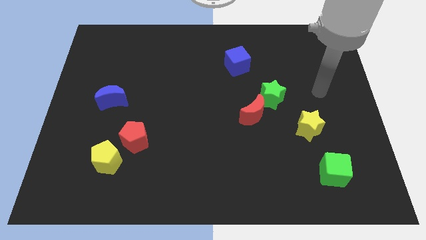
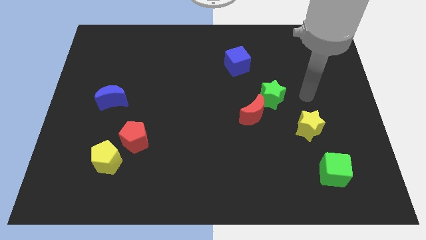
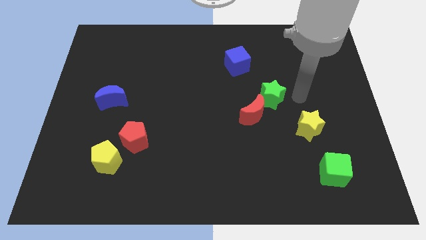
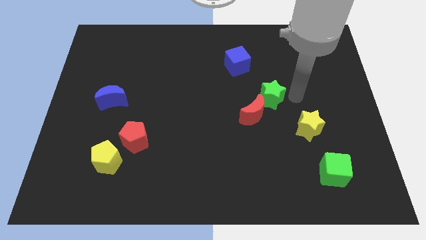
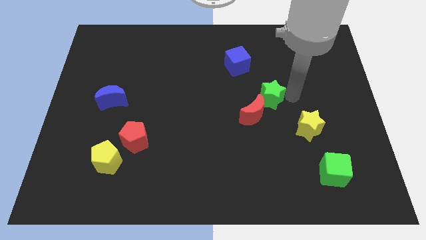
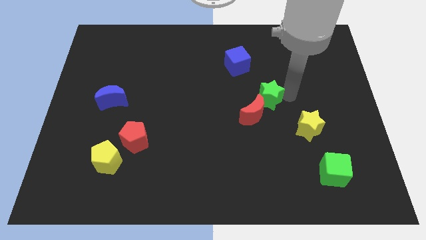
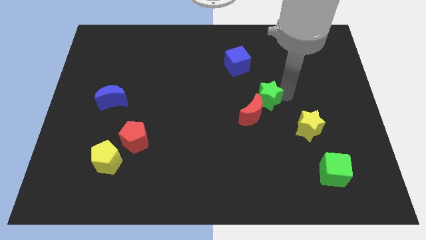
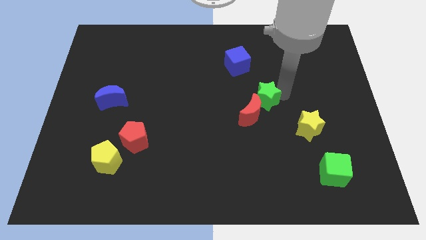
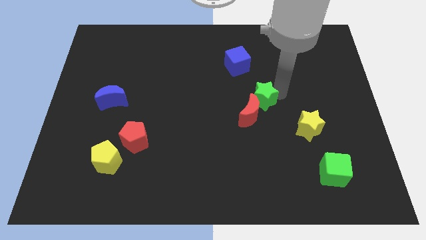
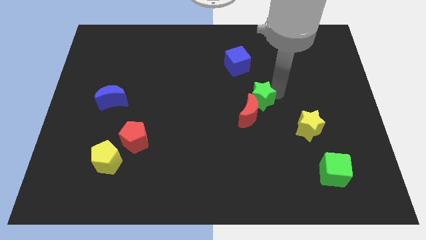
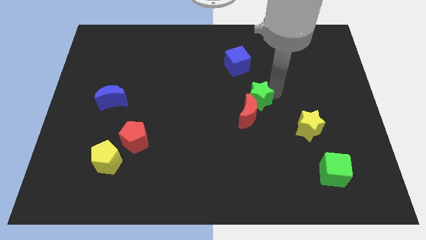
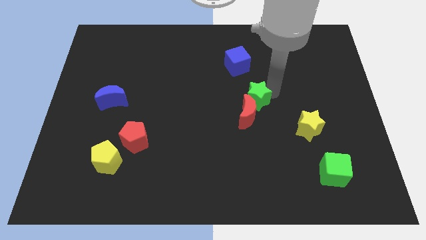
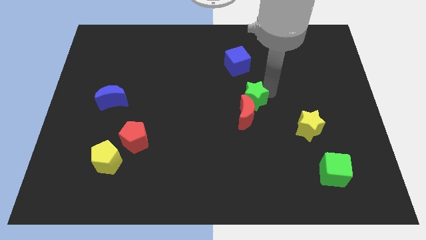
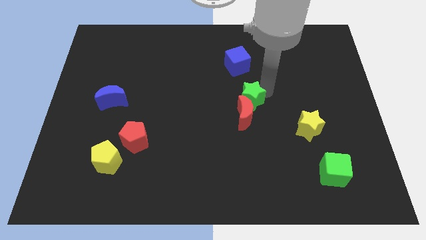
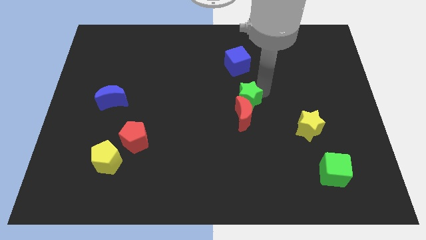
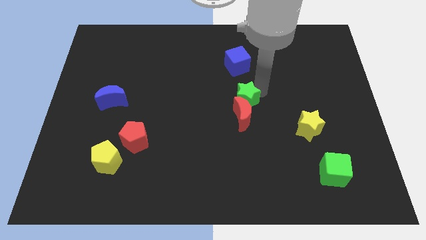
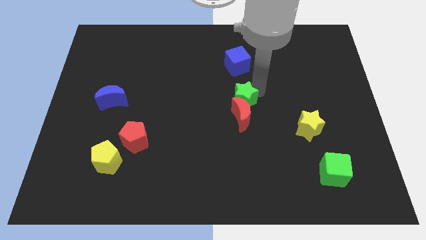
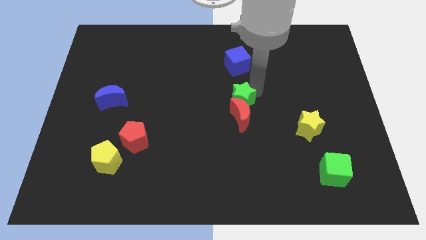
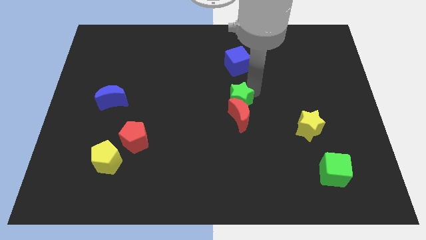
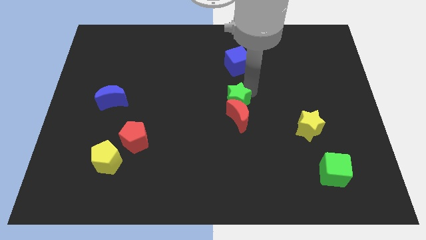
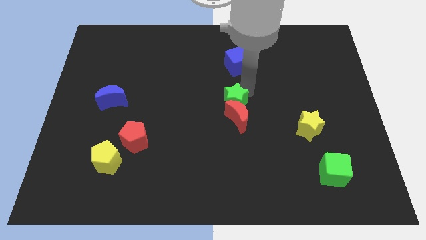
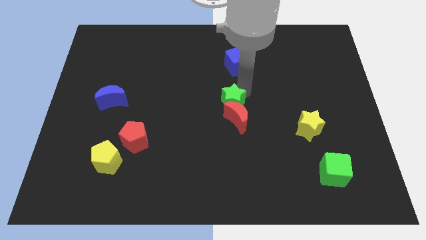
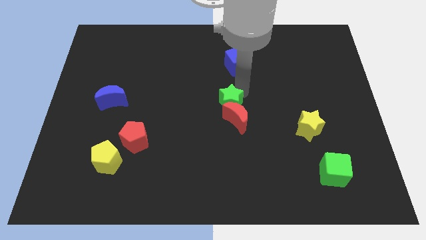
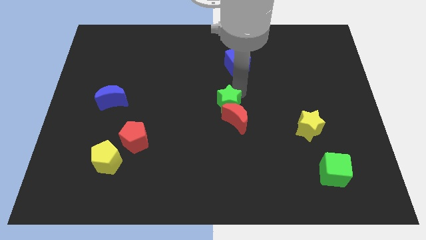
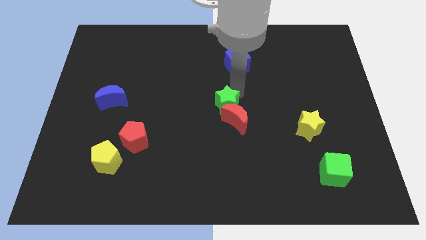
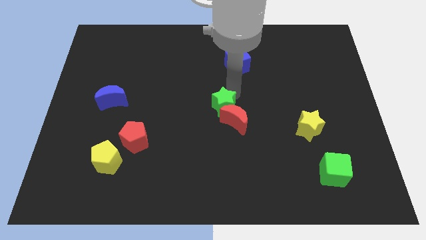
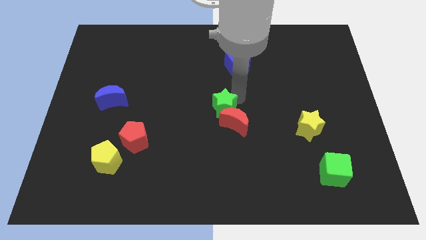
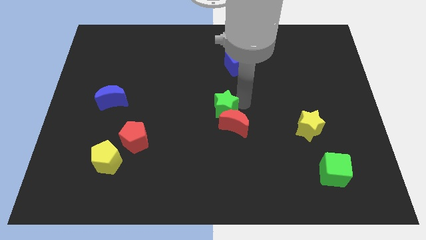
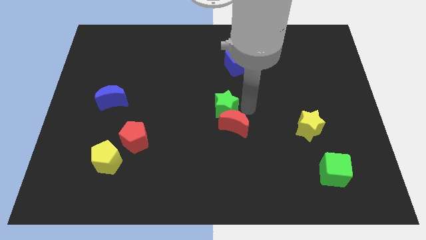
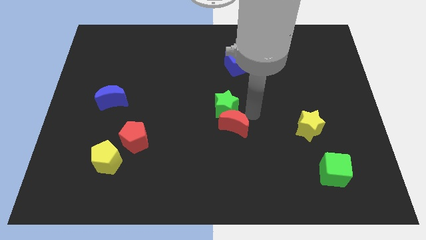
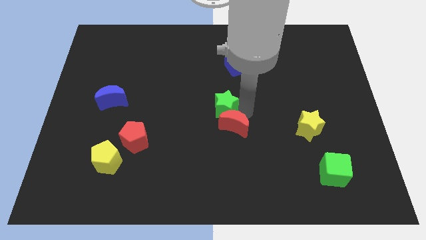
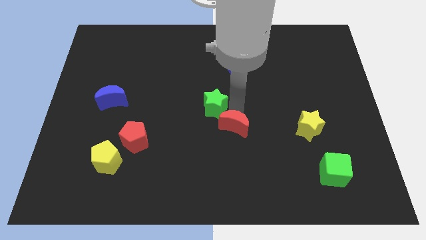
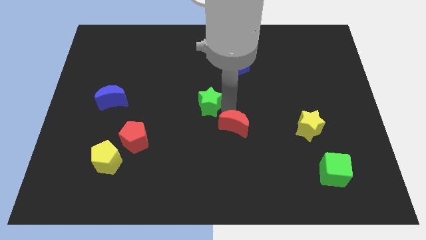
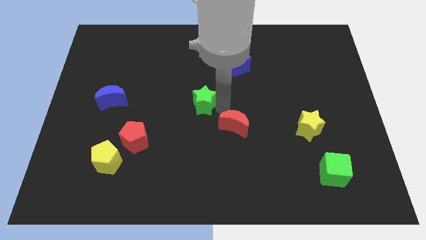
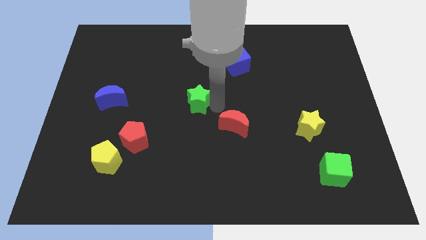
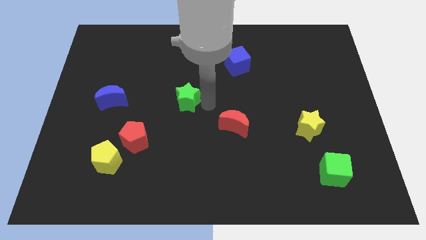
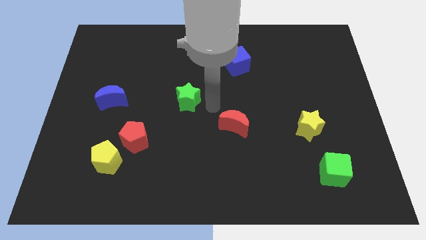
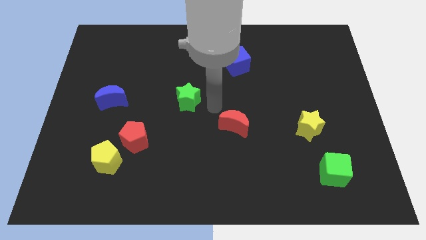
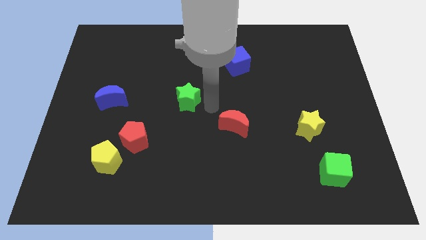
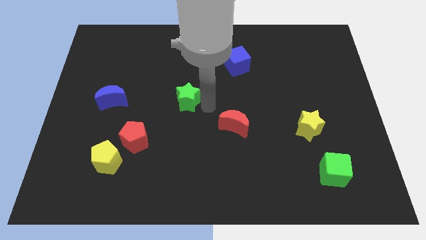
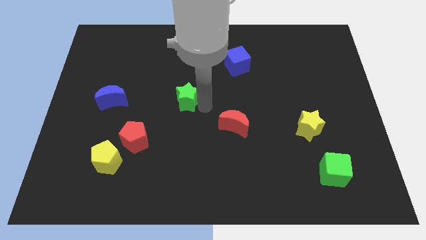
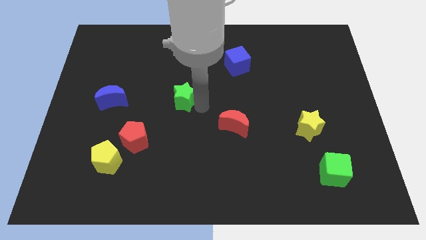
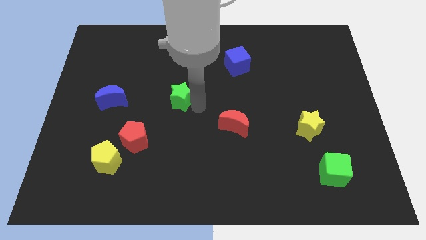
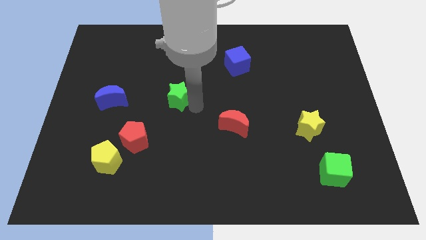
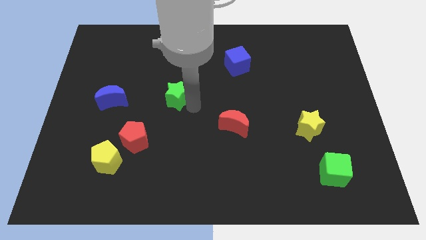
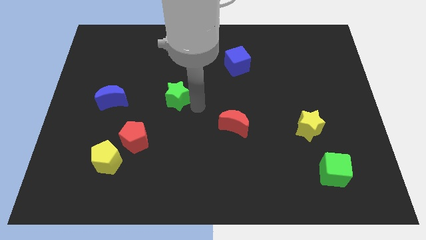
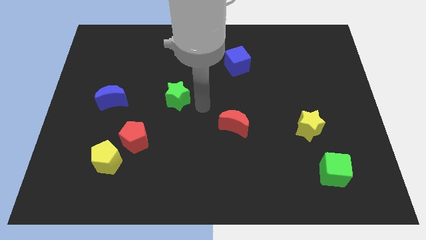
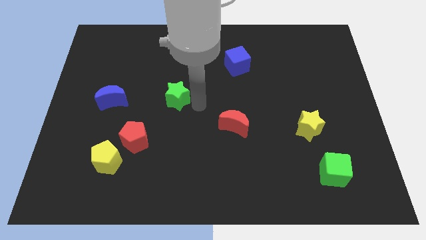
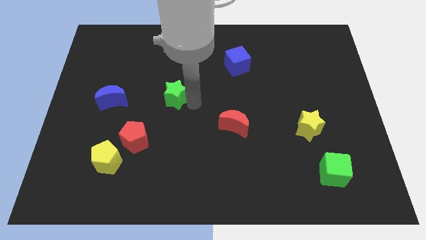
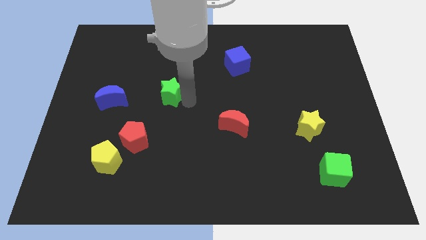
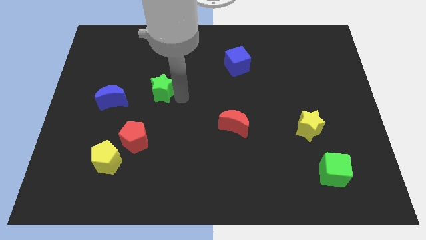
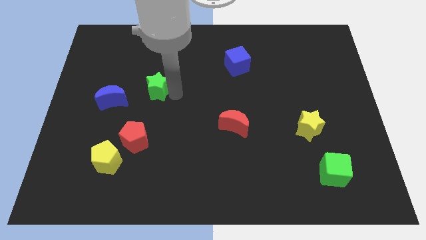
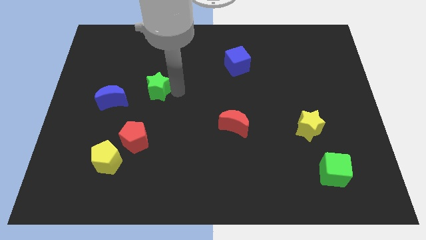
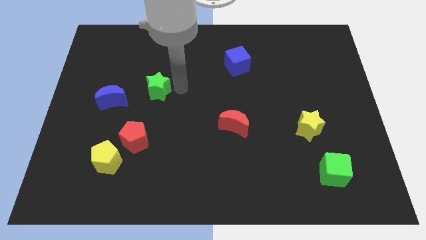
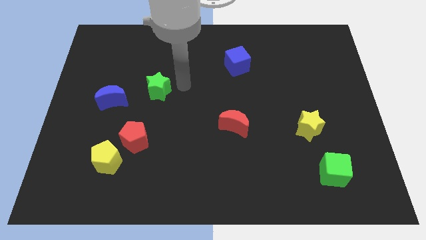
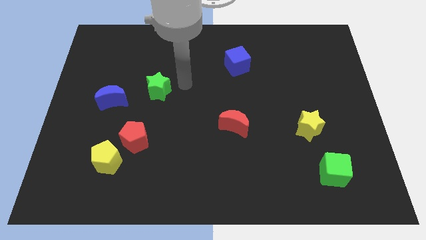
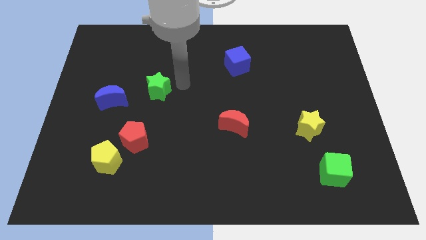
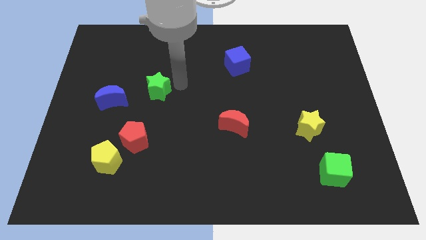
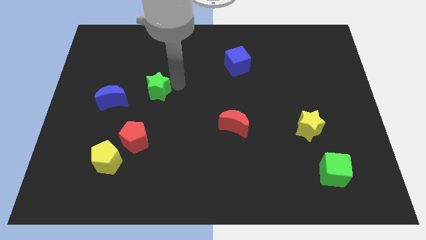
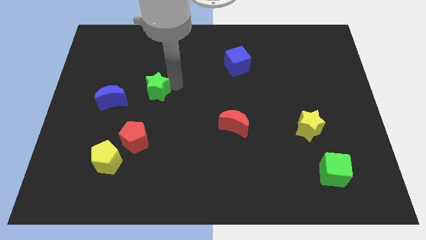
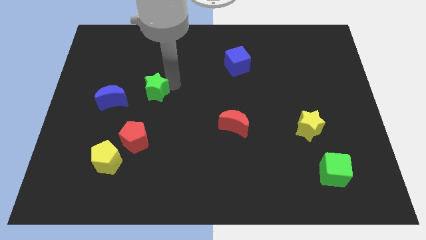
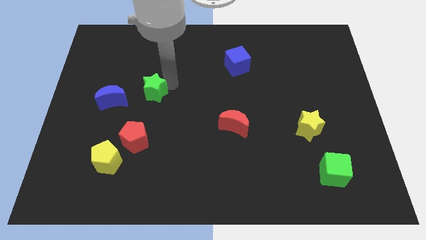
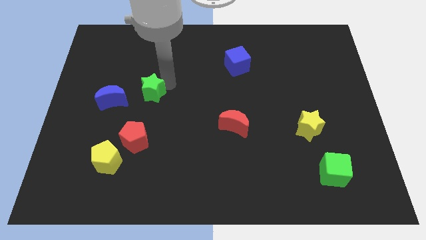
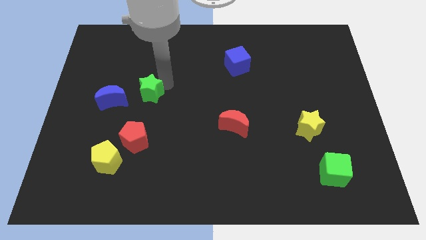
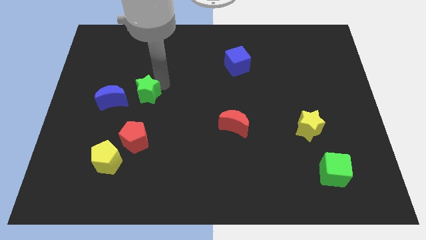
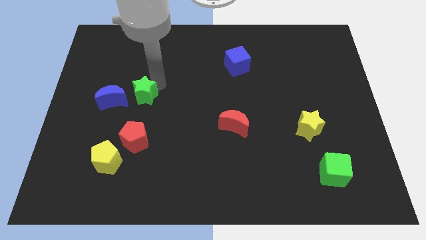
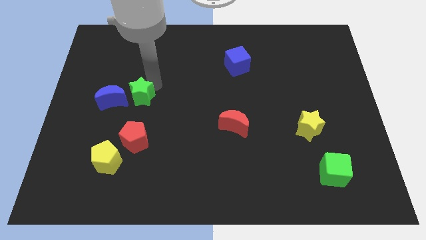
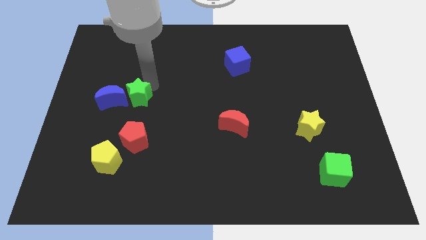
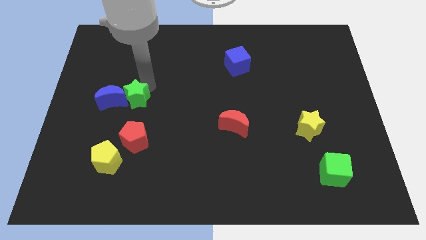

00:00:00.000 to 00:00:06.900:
slide the green star close to the blue moon

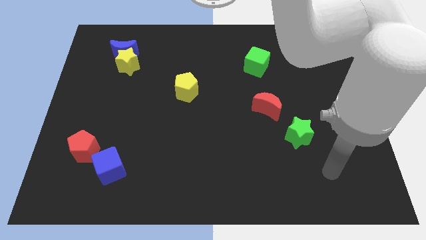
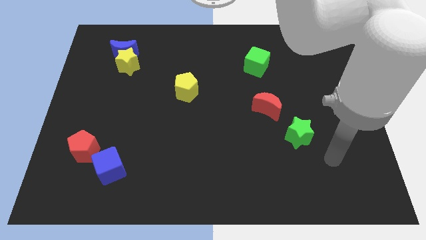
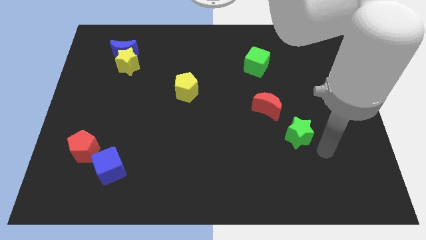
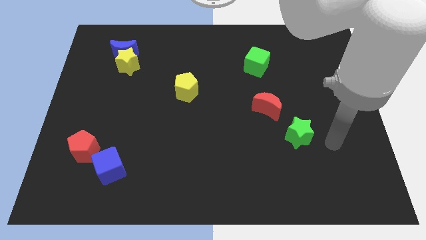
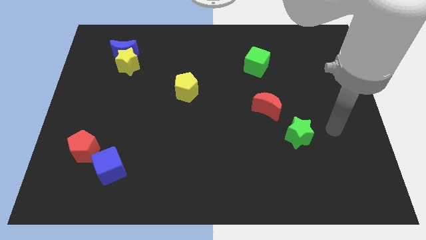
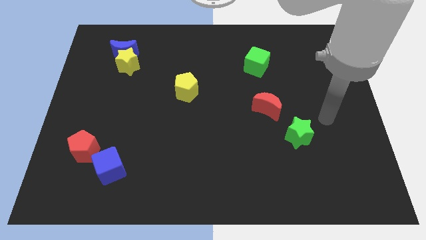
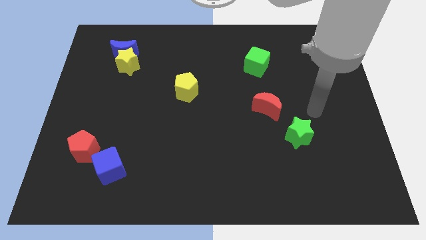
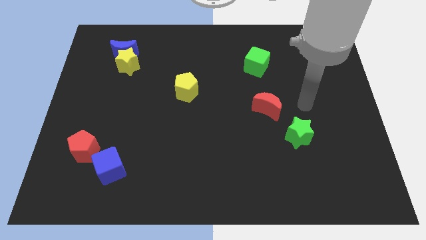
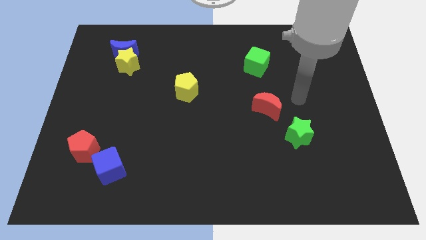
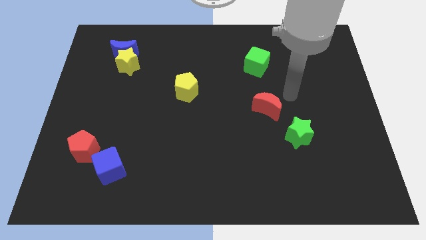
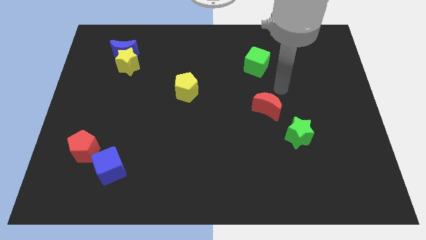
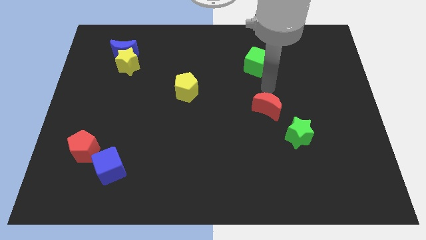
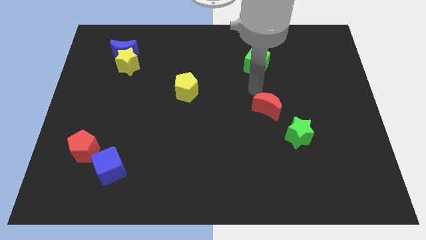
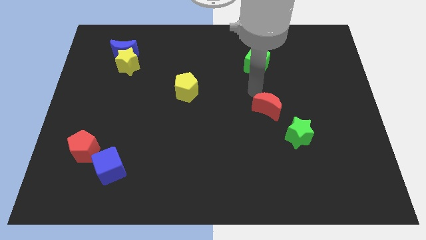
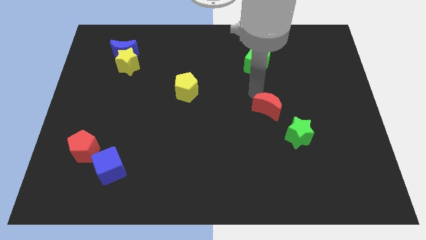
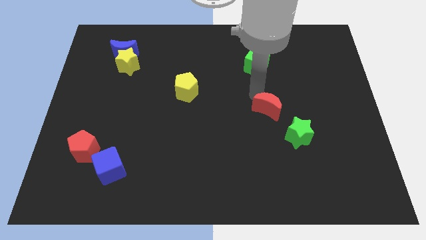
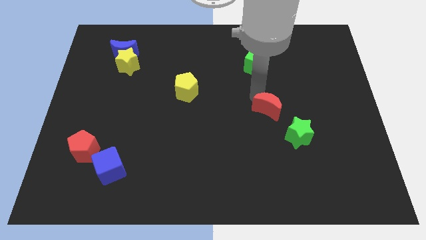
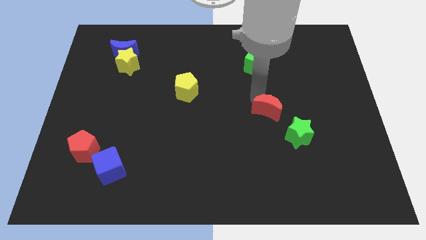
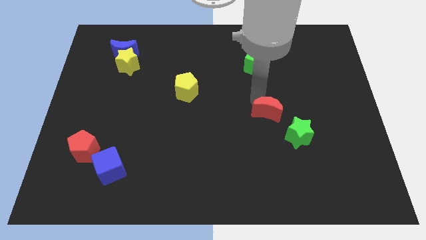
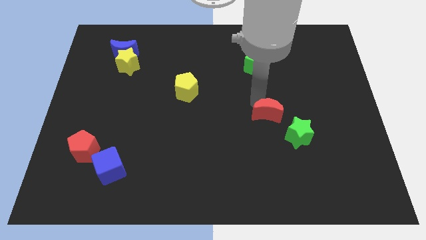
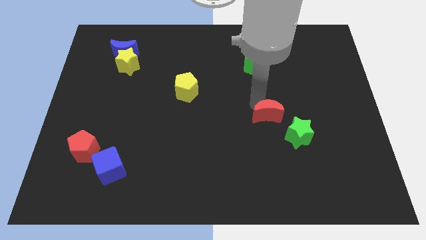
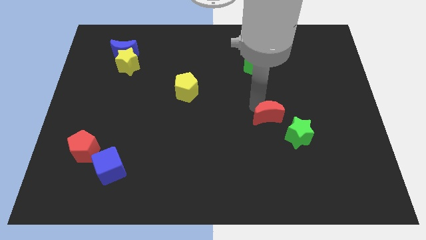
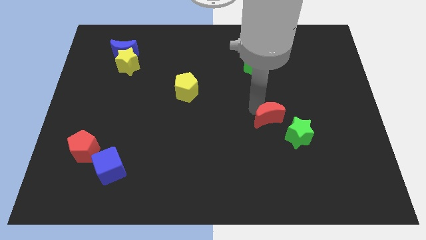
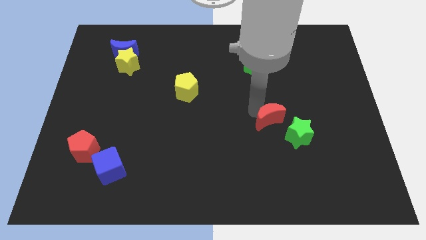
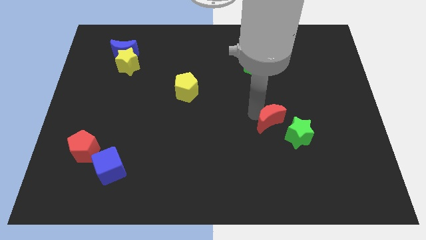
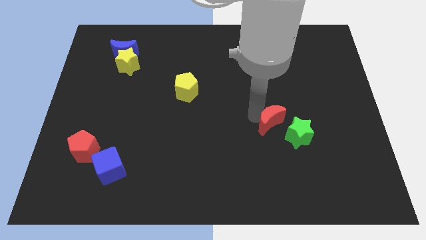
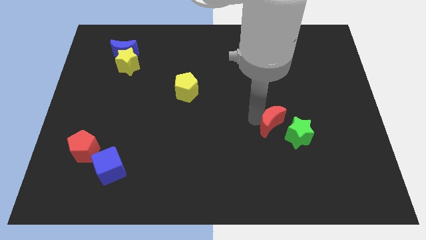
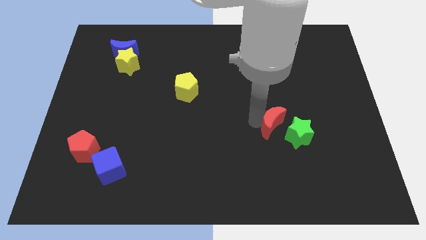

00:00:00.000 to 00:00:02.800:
move the red moon next to the green star
